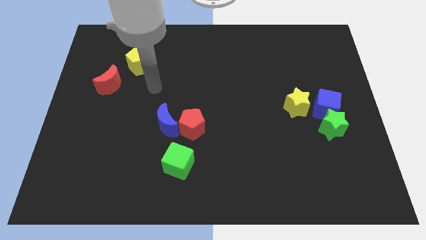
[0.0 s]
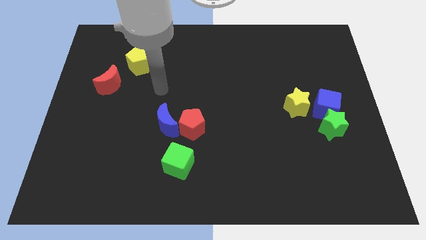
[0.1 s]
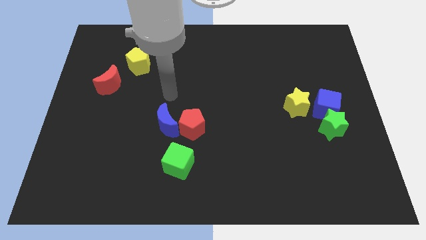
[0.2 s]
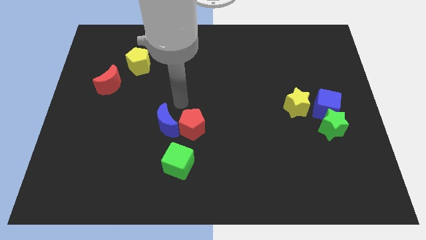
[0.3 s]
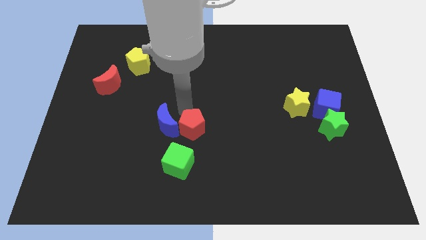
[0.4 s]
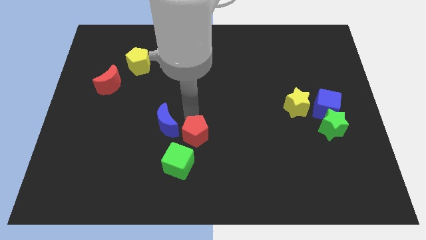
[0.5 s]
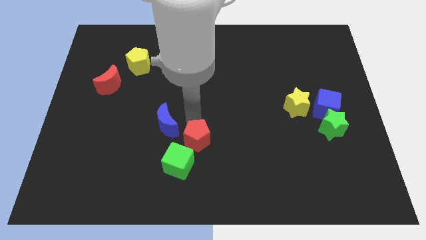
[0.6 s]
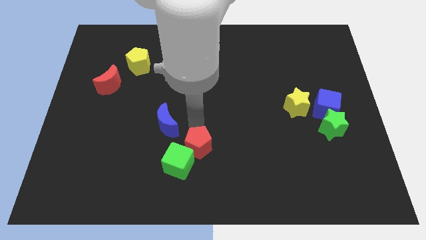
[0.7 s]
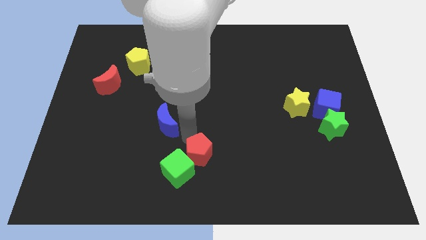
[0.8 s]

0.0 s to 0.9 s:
pull the blue moon apart from the red pentagon

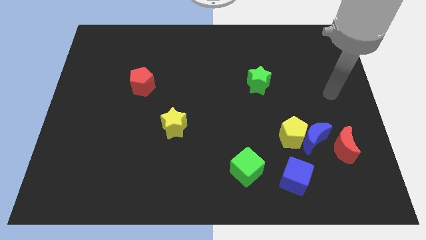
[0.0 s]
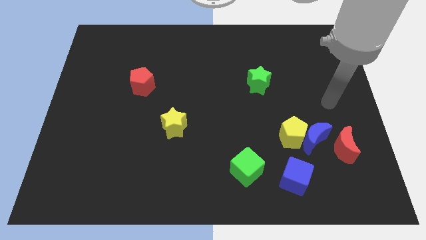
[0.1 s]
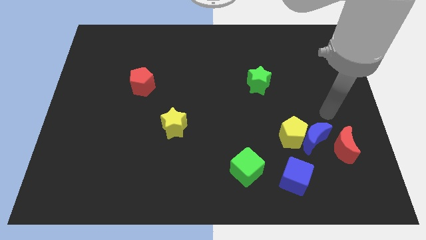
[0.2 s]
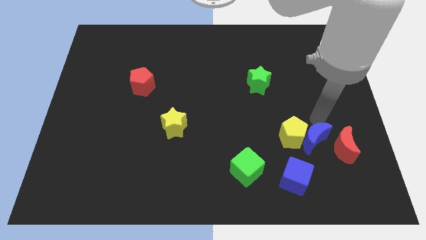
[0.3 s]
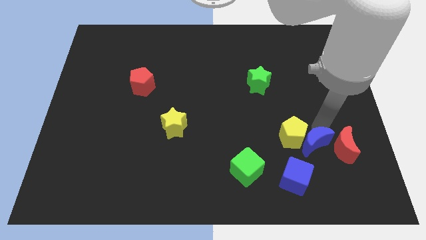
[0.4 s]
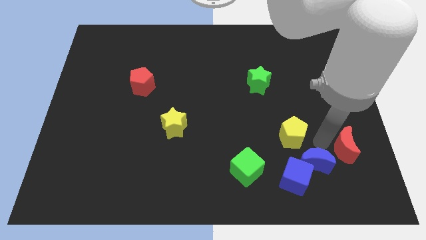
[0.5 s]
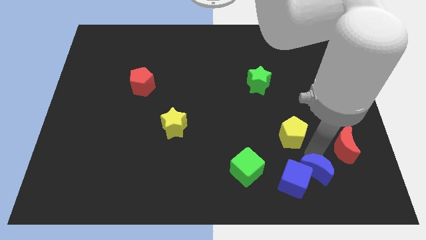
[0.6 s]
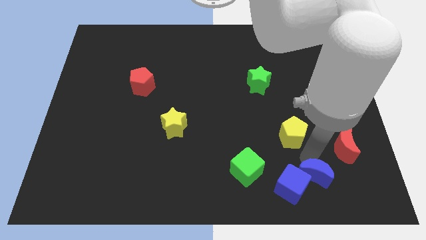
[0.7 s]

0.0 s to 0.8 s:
pull the yellow pentagon apart from the blue moon

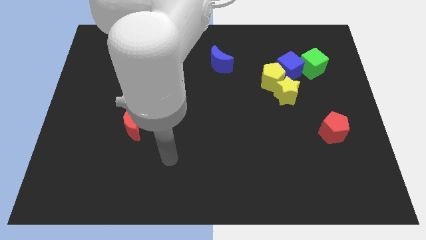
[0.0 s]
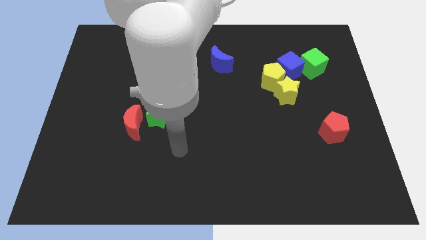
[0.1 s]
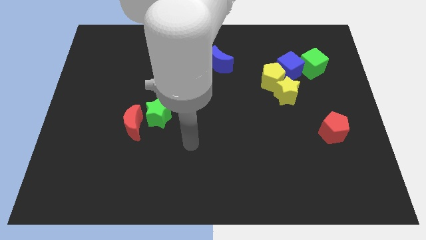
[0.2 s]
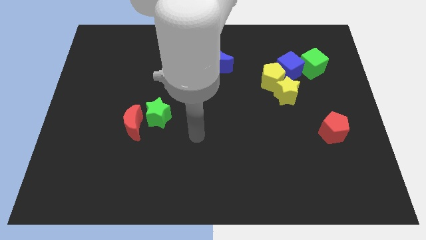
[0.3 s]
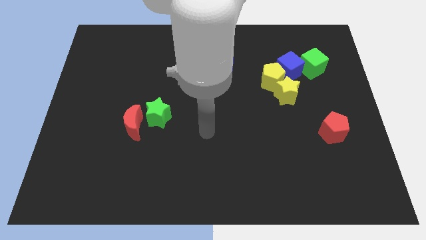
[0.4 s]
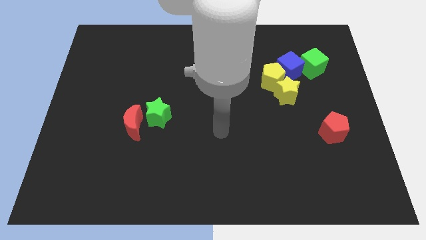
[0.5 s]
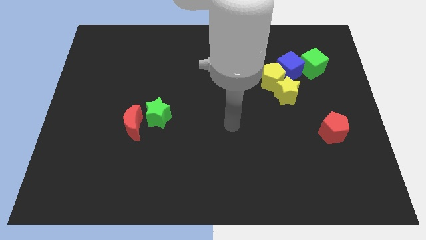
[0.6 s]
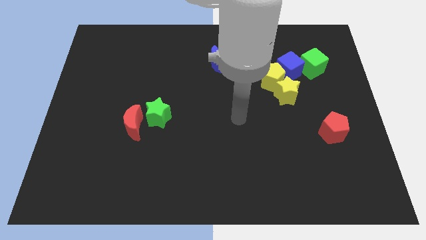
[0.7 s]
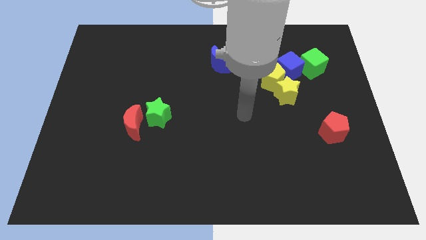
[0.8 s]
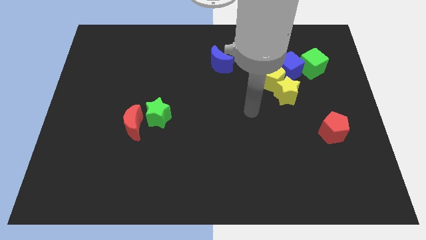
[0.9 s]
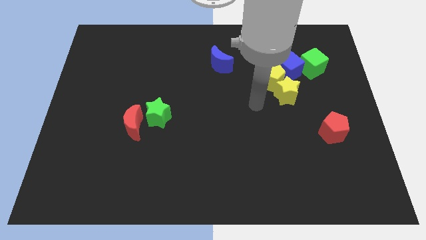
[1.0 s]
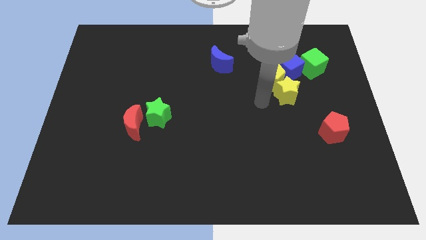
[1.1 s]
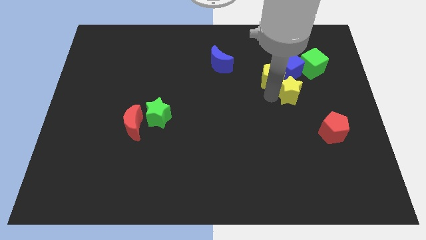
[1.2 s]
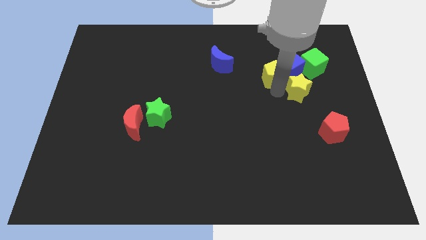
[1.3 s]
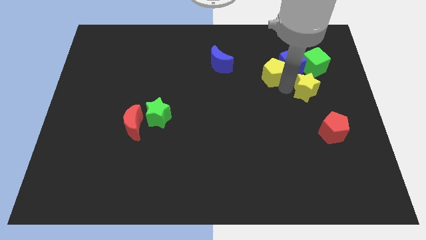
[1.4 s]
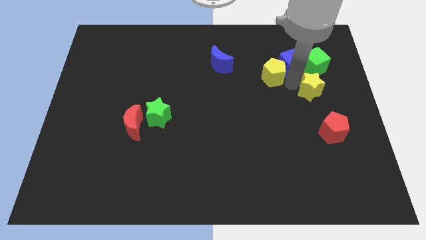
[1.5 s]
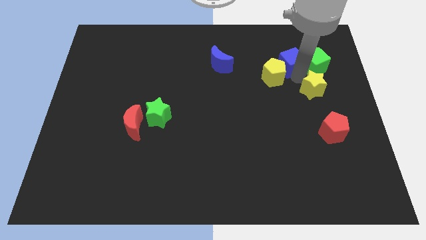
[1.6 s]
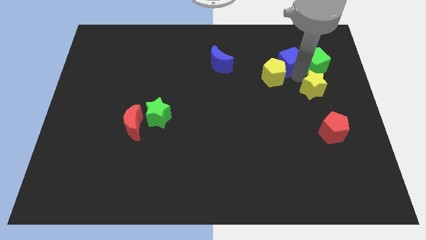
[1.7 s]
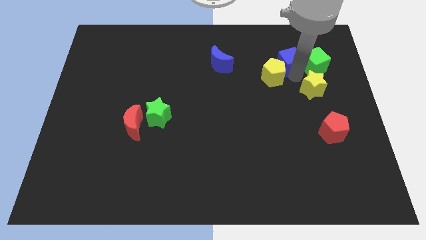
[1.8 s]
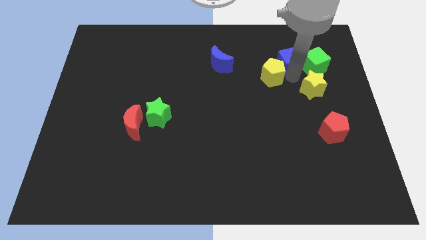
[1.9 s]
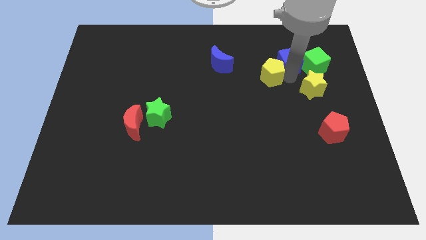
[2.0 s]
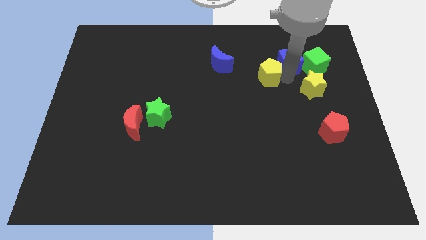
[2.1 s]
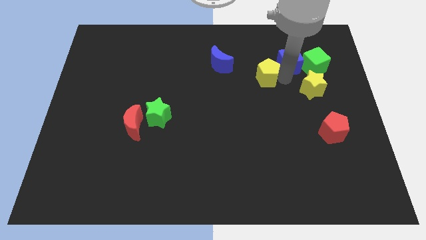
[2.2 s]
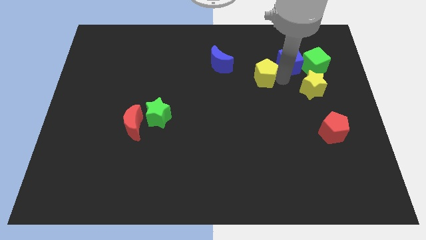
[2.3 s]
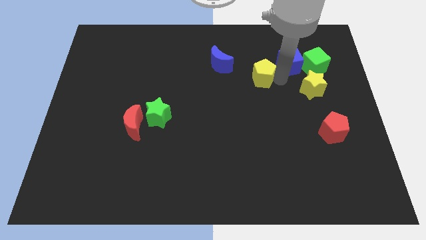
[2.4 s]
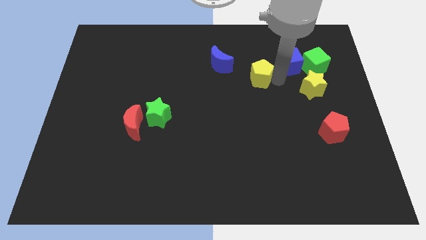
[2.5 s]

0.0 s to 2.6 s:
separate the yellow pentagon from the yellow star and blue cube

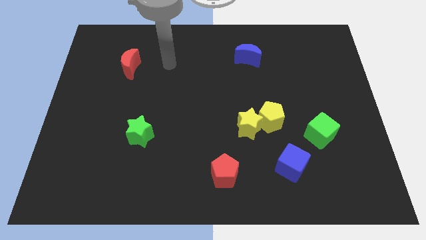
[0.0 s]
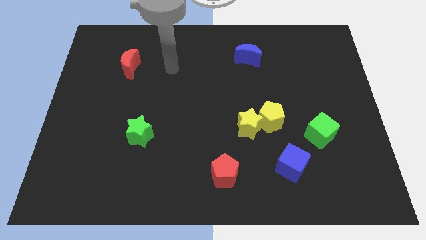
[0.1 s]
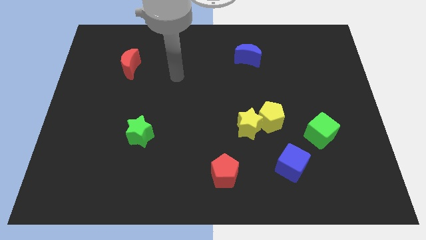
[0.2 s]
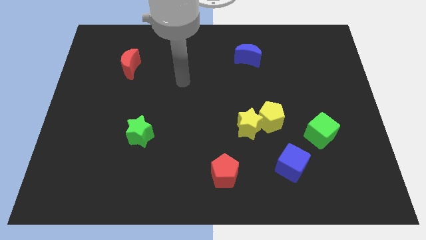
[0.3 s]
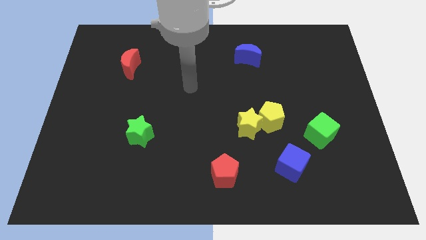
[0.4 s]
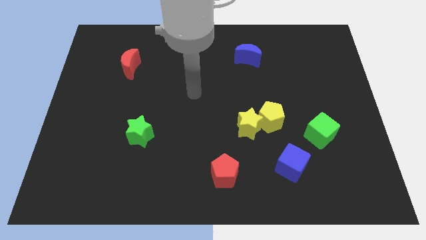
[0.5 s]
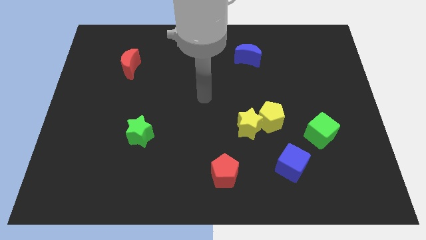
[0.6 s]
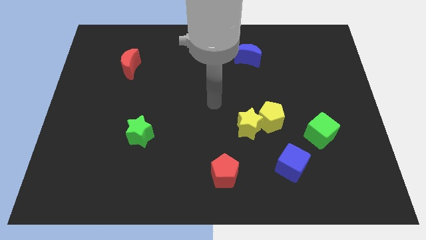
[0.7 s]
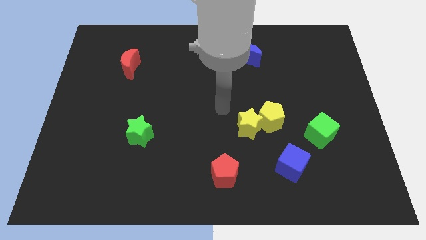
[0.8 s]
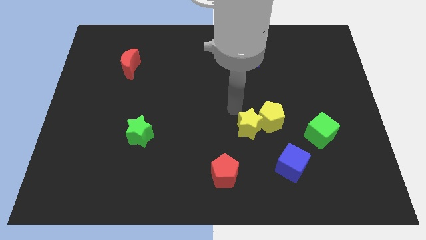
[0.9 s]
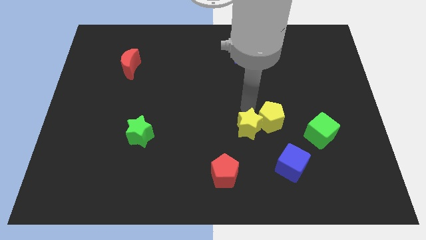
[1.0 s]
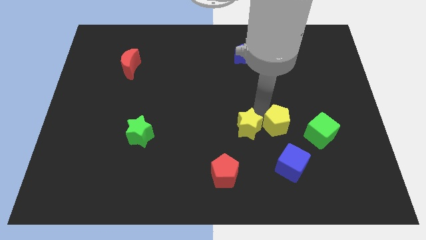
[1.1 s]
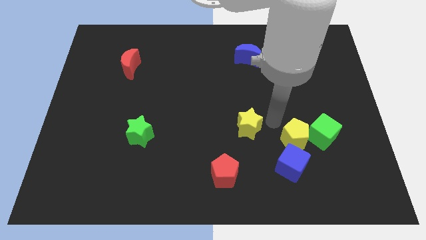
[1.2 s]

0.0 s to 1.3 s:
separate the yellow star from the yellow pentagon

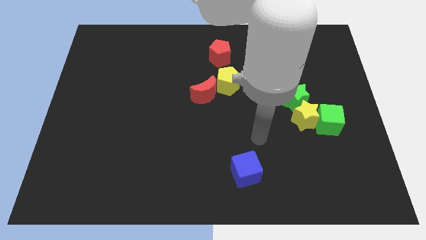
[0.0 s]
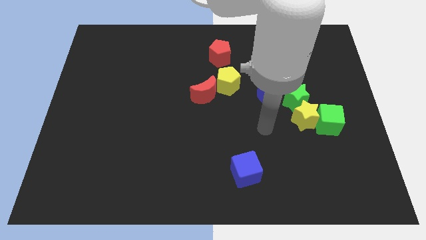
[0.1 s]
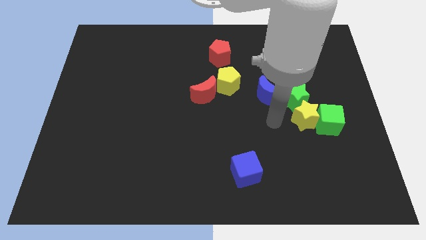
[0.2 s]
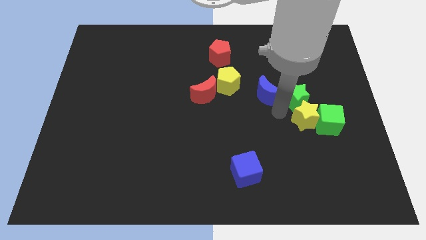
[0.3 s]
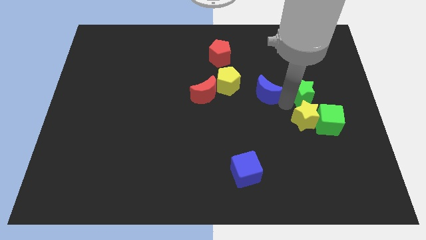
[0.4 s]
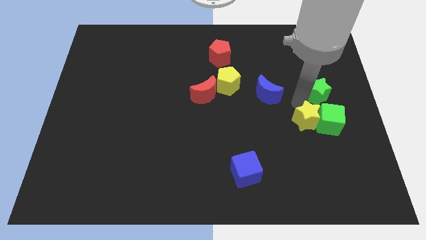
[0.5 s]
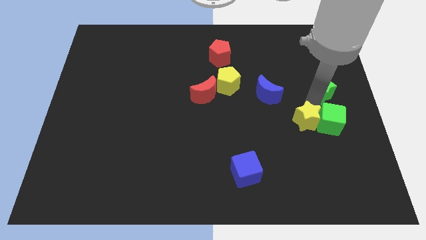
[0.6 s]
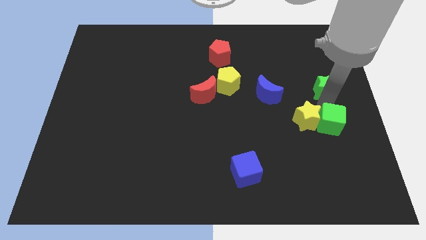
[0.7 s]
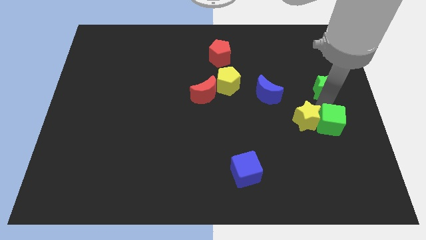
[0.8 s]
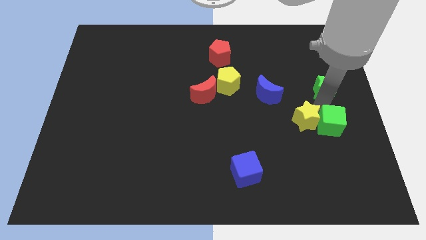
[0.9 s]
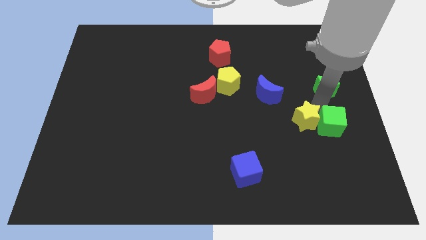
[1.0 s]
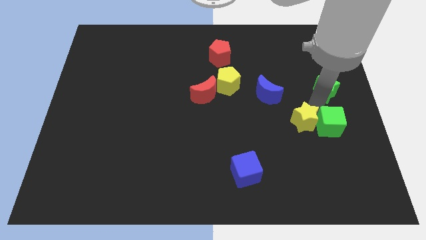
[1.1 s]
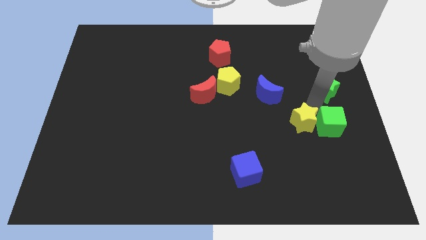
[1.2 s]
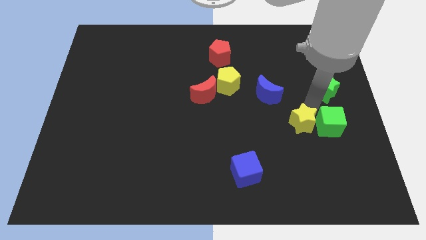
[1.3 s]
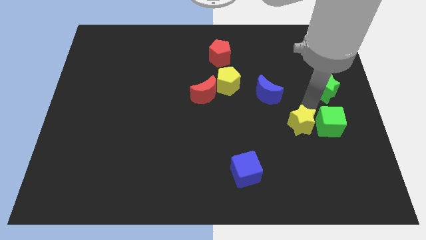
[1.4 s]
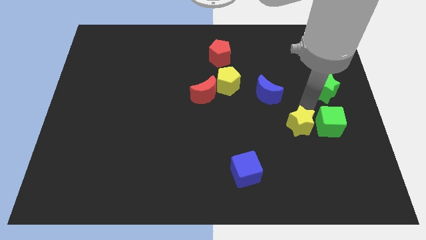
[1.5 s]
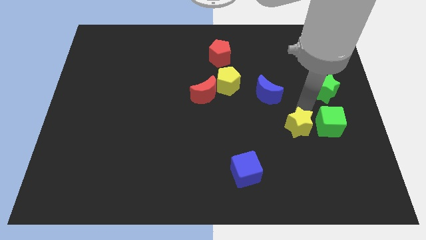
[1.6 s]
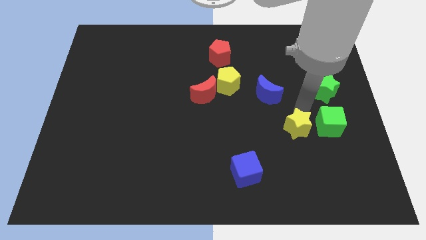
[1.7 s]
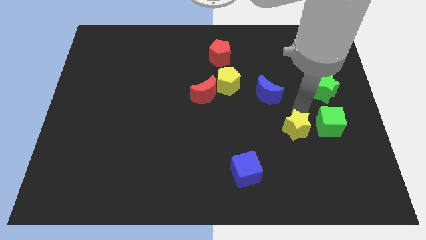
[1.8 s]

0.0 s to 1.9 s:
pull the yellow star apart from the green star and green cube

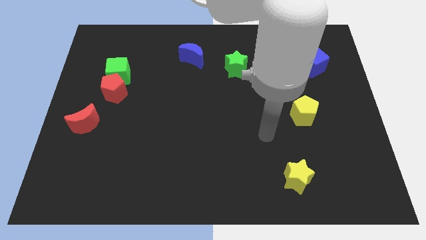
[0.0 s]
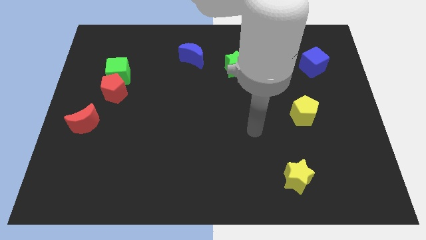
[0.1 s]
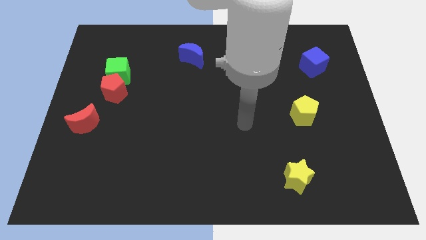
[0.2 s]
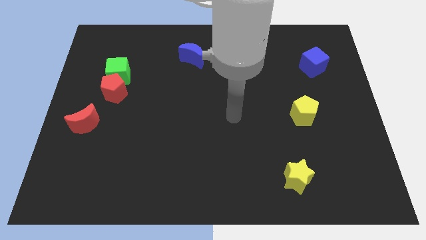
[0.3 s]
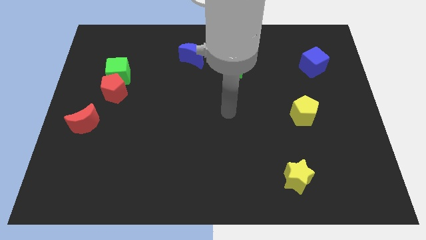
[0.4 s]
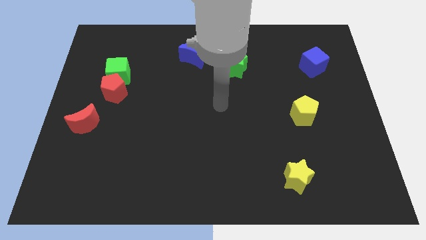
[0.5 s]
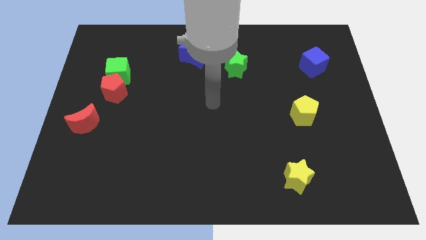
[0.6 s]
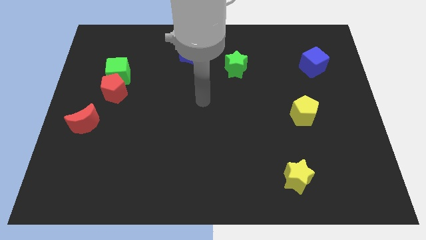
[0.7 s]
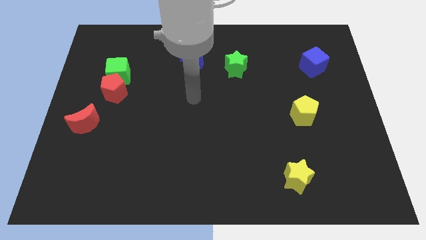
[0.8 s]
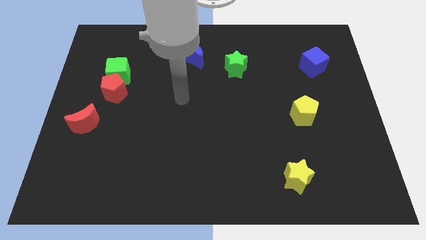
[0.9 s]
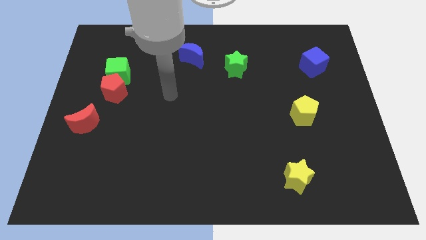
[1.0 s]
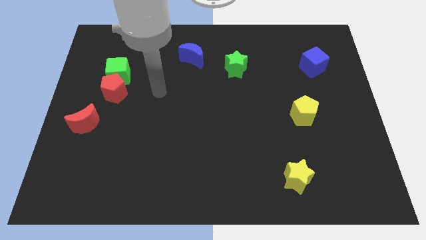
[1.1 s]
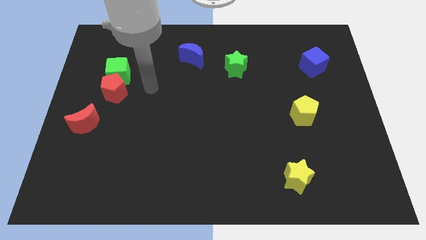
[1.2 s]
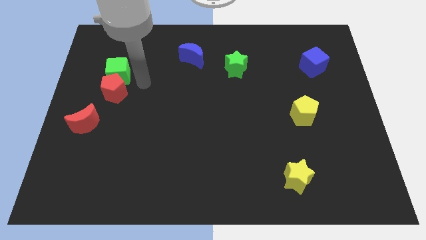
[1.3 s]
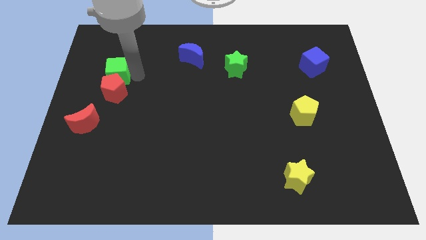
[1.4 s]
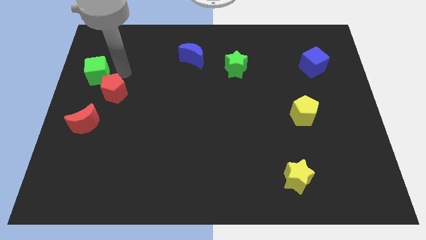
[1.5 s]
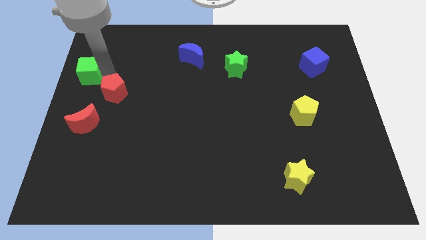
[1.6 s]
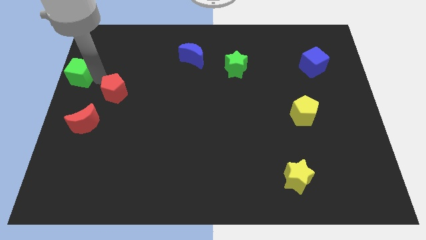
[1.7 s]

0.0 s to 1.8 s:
pull the red pentagon apart from the green cube
